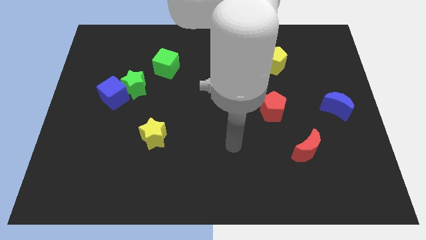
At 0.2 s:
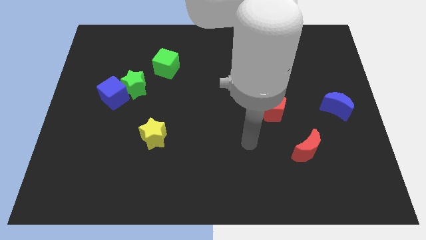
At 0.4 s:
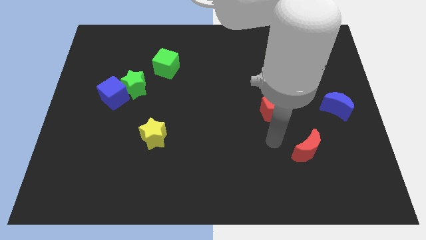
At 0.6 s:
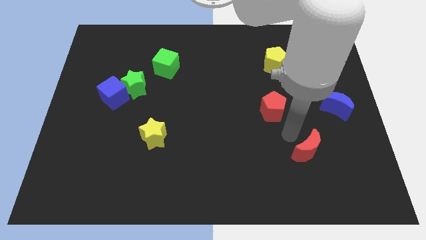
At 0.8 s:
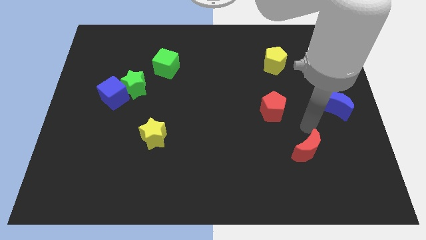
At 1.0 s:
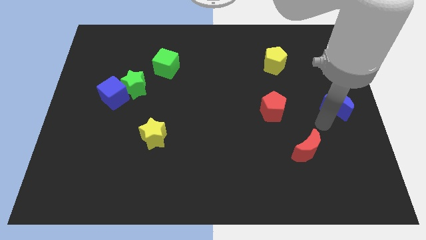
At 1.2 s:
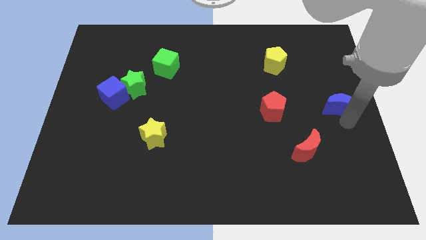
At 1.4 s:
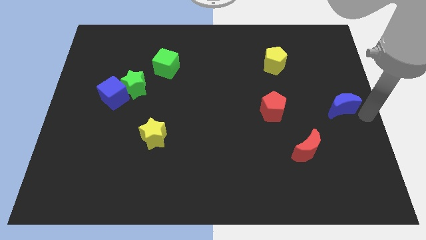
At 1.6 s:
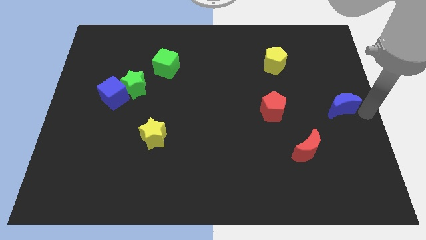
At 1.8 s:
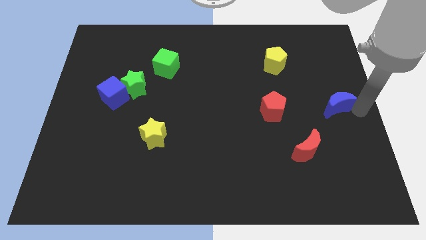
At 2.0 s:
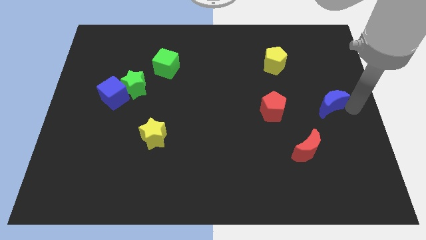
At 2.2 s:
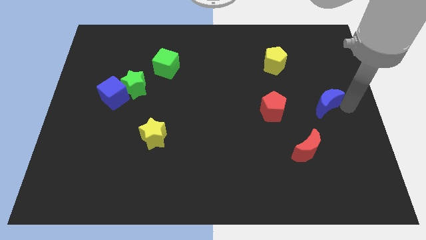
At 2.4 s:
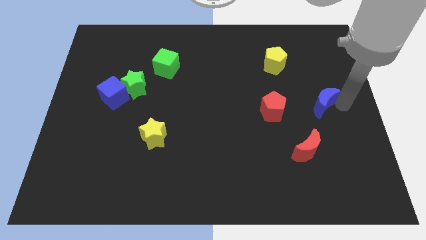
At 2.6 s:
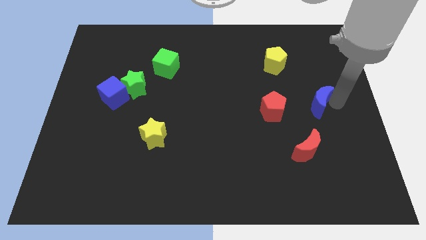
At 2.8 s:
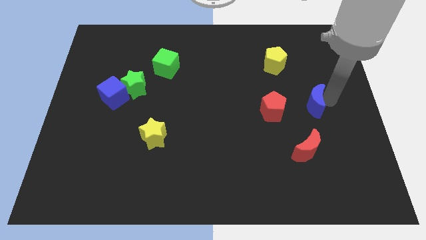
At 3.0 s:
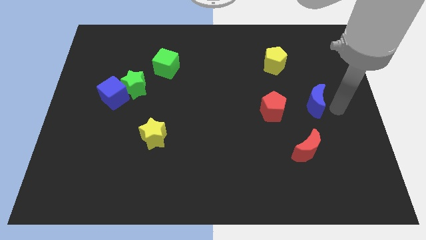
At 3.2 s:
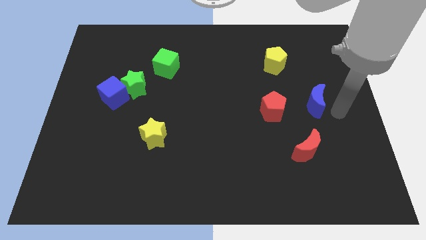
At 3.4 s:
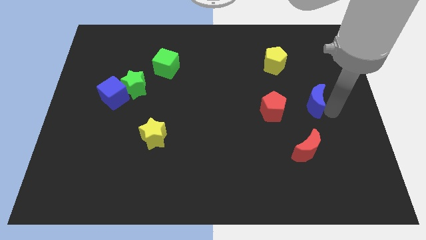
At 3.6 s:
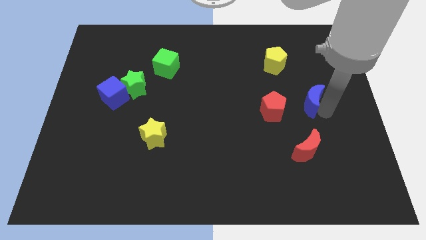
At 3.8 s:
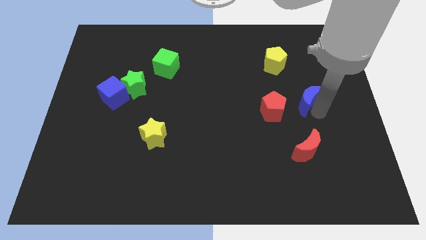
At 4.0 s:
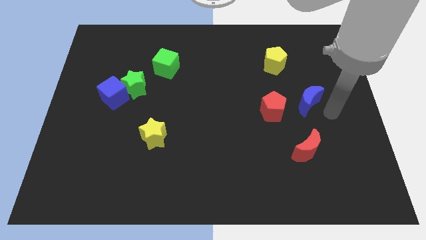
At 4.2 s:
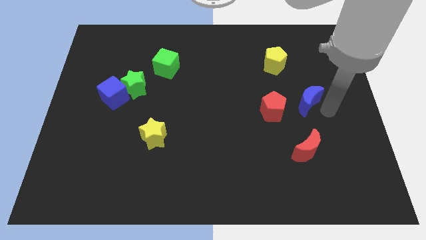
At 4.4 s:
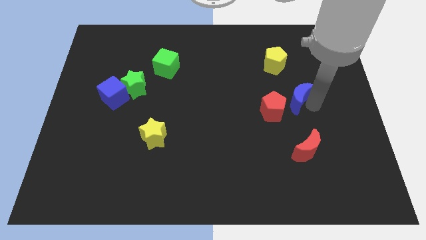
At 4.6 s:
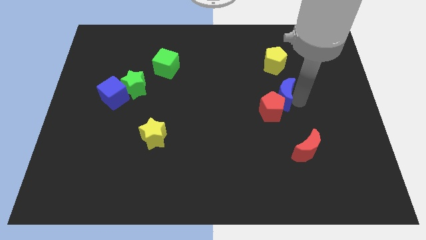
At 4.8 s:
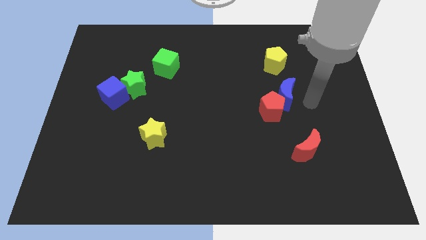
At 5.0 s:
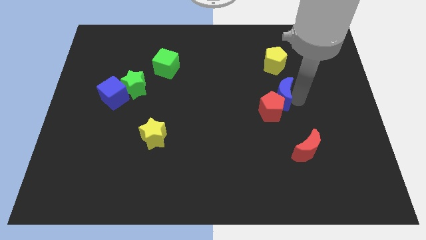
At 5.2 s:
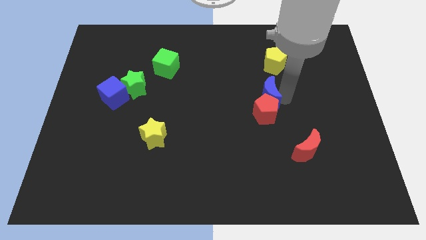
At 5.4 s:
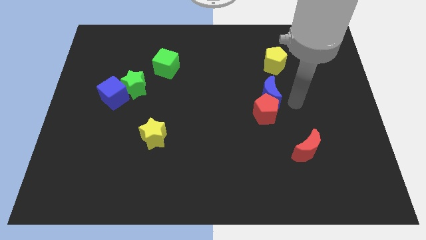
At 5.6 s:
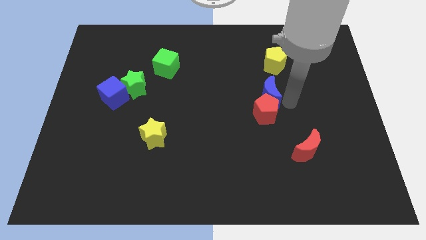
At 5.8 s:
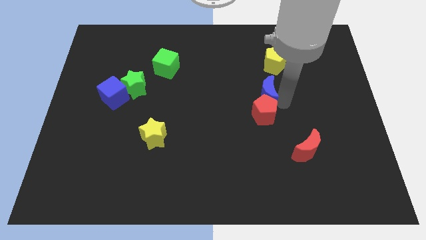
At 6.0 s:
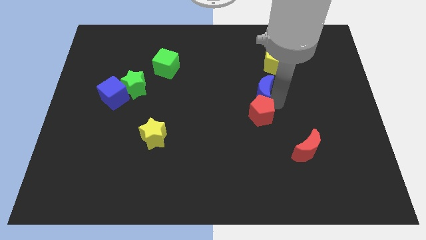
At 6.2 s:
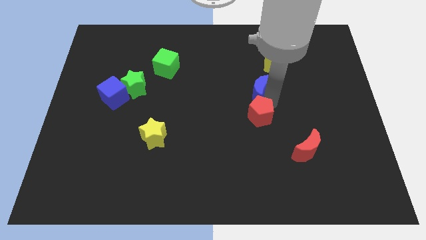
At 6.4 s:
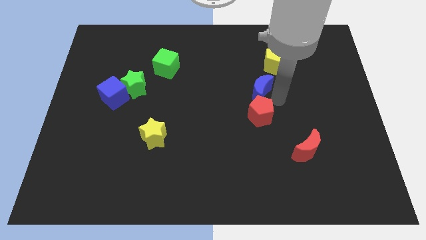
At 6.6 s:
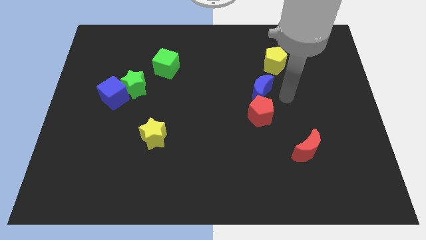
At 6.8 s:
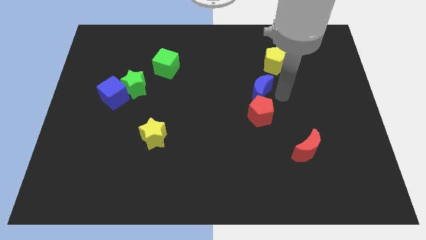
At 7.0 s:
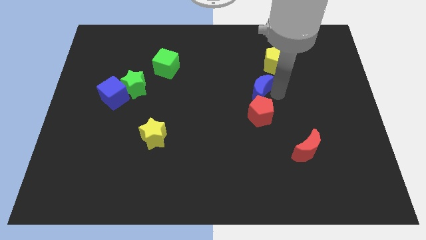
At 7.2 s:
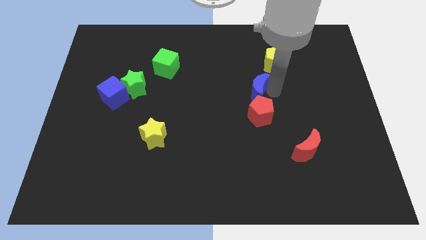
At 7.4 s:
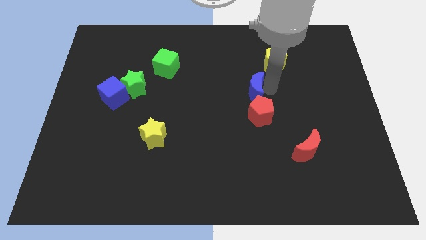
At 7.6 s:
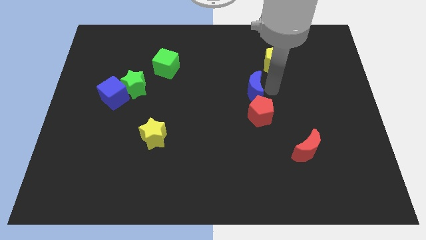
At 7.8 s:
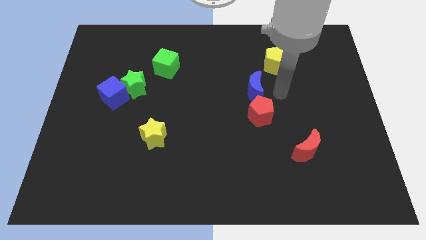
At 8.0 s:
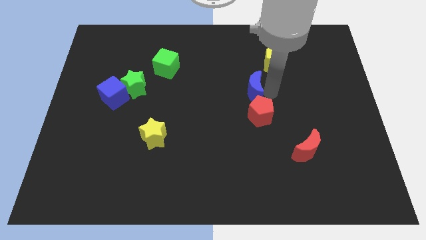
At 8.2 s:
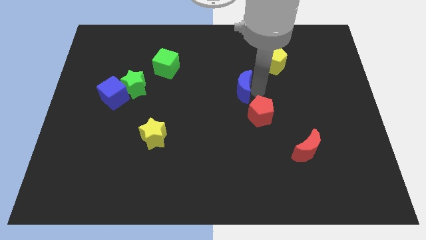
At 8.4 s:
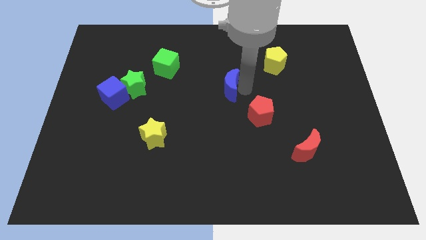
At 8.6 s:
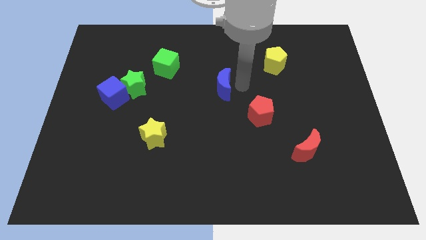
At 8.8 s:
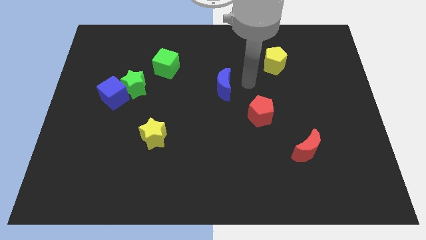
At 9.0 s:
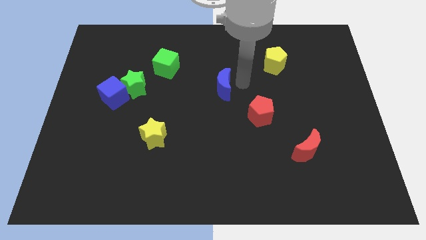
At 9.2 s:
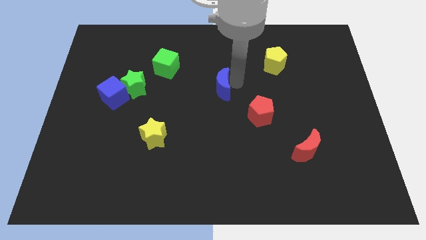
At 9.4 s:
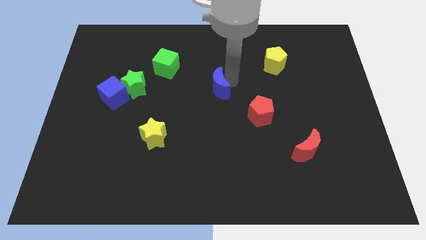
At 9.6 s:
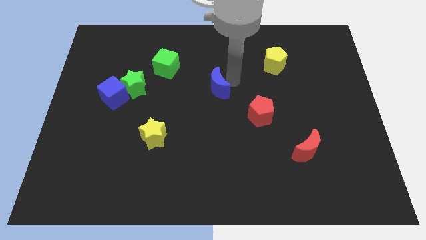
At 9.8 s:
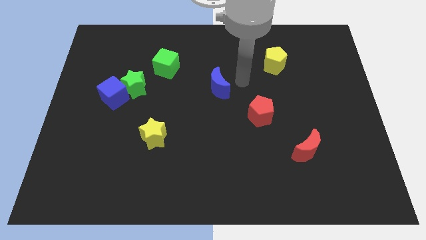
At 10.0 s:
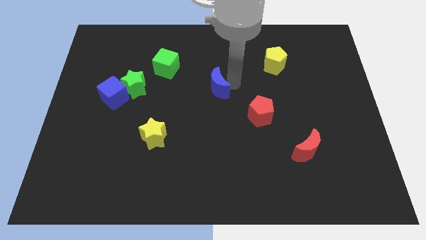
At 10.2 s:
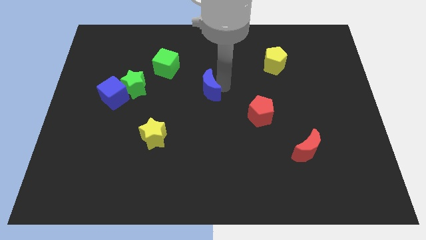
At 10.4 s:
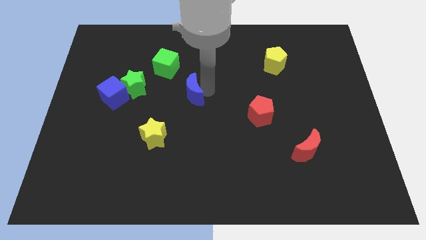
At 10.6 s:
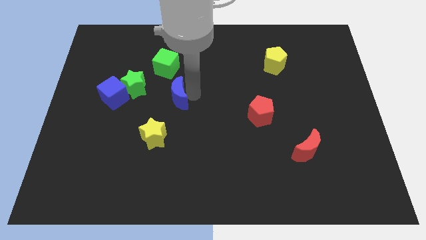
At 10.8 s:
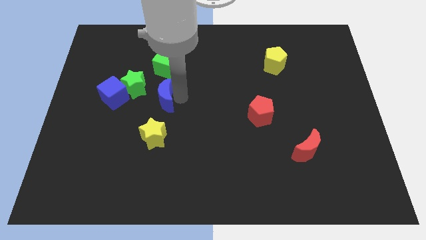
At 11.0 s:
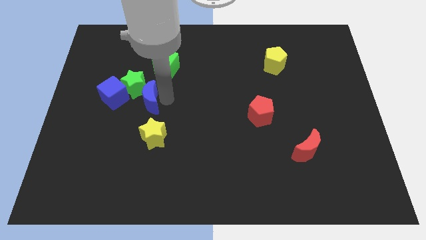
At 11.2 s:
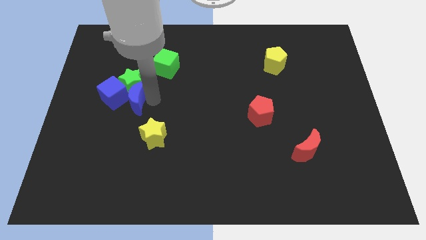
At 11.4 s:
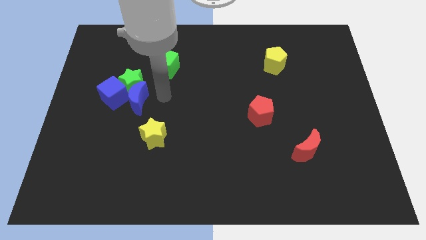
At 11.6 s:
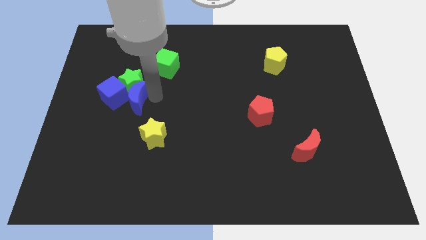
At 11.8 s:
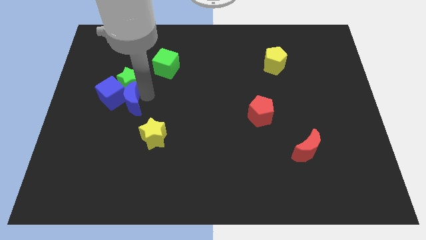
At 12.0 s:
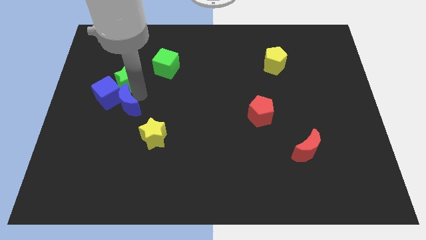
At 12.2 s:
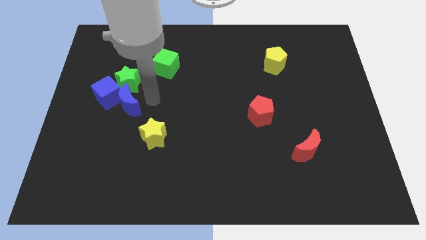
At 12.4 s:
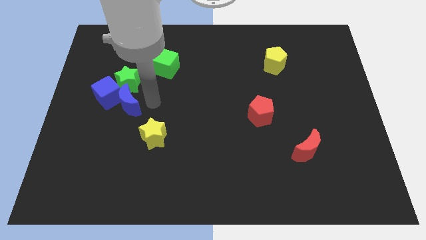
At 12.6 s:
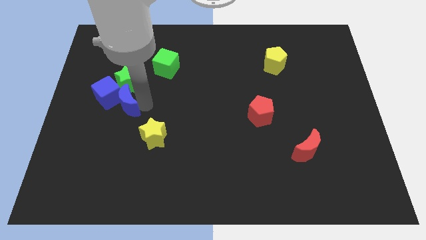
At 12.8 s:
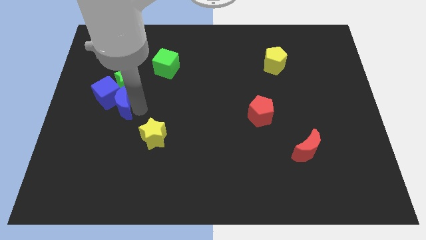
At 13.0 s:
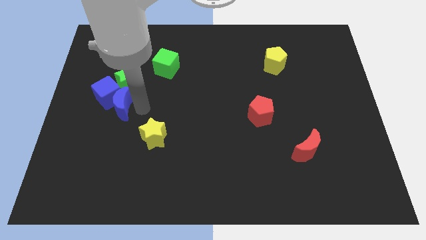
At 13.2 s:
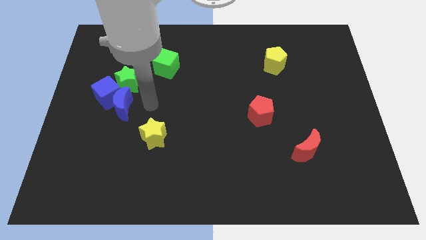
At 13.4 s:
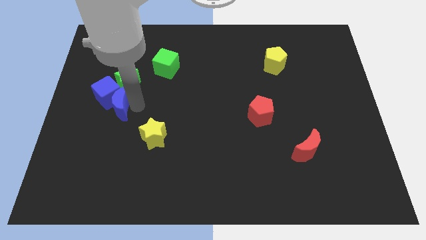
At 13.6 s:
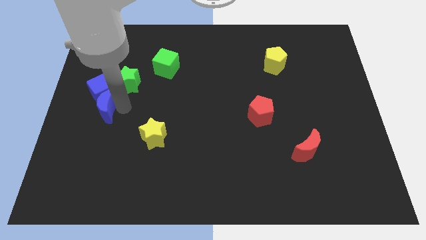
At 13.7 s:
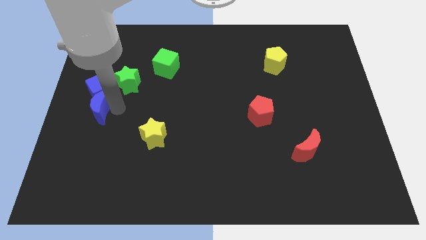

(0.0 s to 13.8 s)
push the blue moon to the center left
